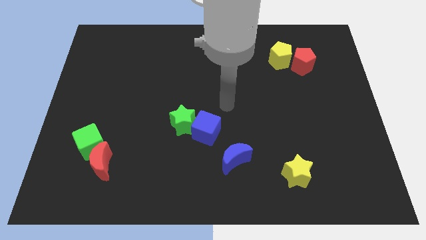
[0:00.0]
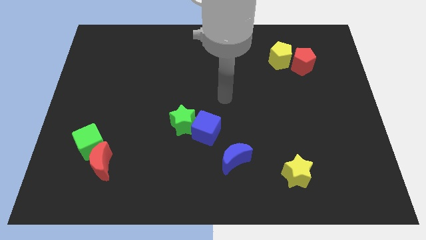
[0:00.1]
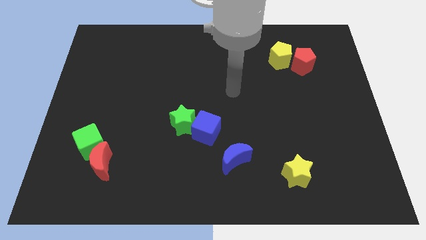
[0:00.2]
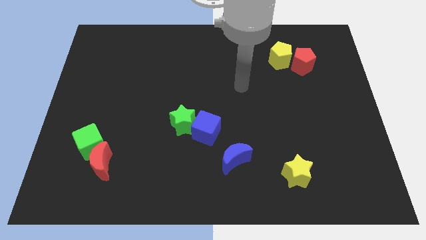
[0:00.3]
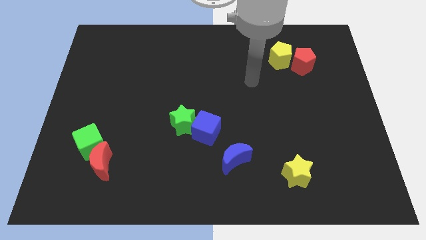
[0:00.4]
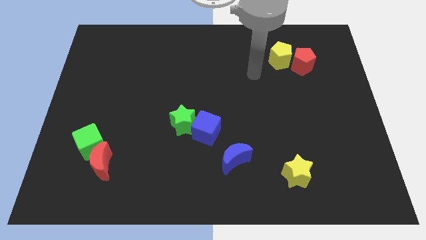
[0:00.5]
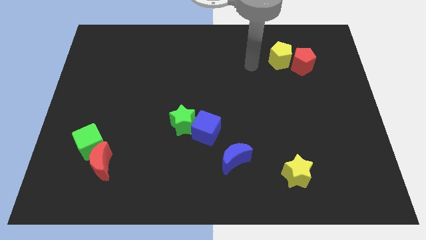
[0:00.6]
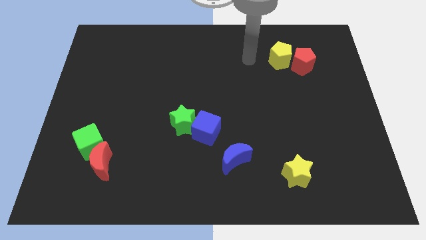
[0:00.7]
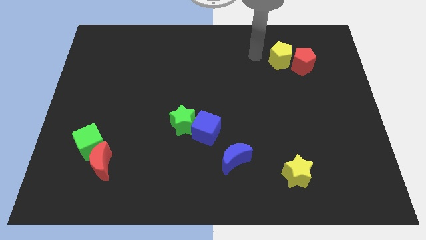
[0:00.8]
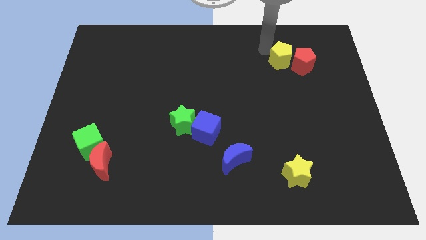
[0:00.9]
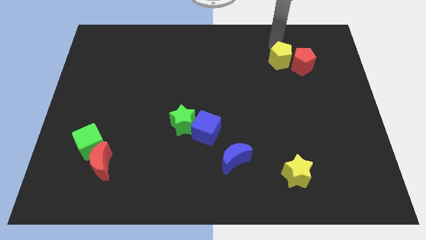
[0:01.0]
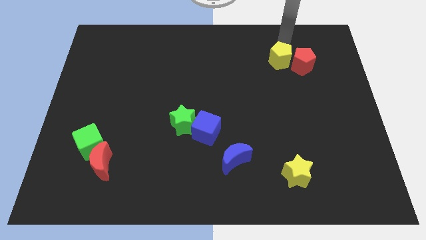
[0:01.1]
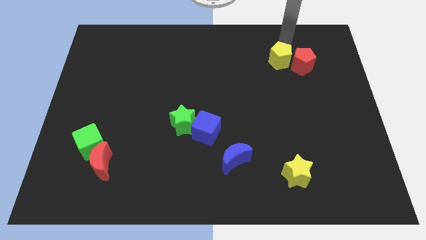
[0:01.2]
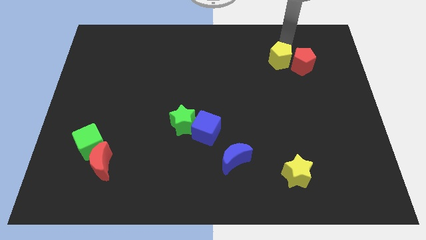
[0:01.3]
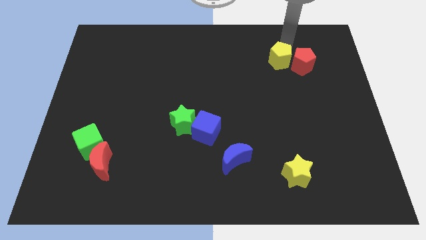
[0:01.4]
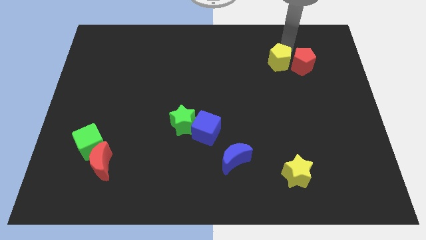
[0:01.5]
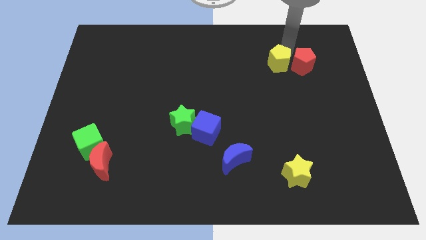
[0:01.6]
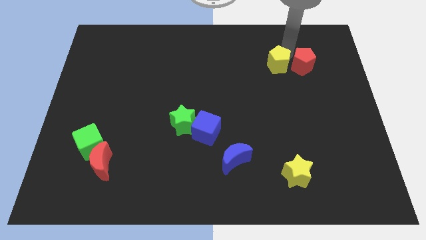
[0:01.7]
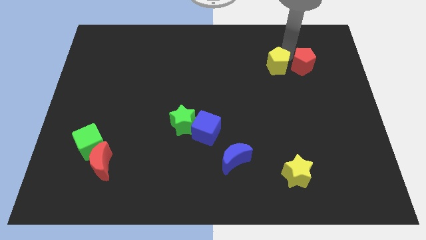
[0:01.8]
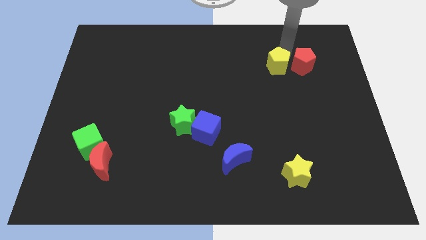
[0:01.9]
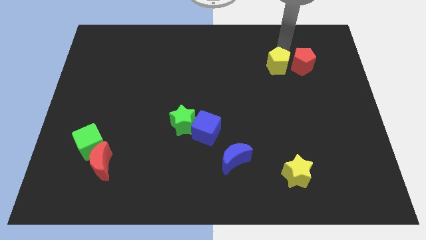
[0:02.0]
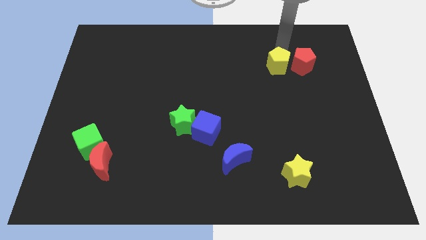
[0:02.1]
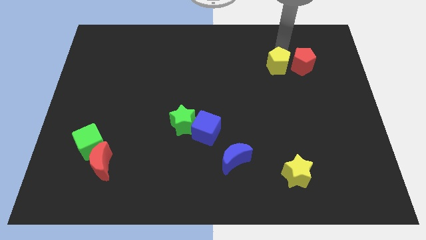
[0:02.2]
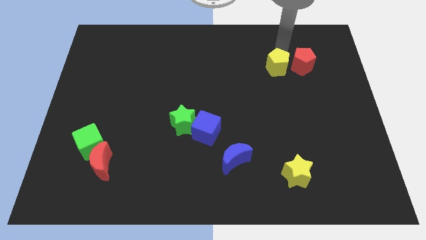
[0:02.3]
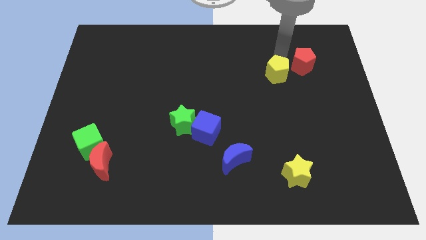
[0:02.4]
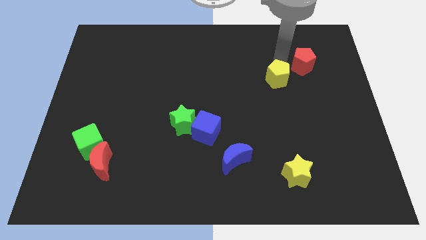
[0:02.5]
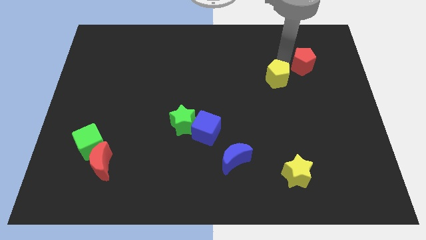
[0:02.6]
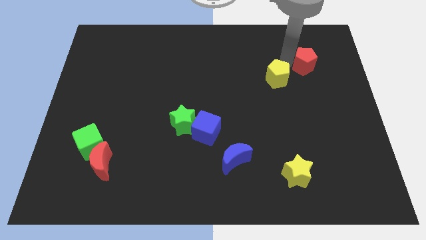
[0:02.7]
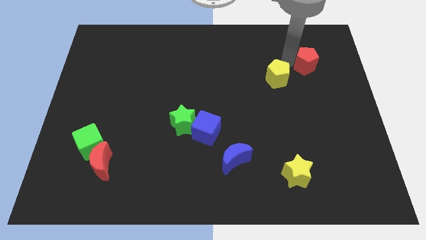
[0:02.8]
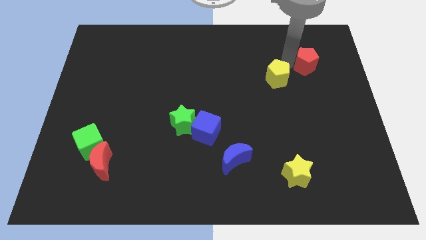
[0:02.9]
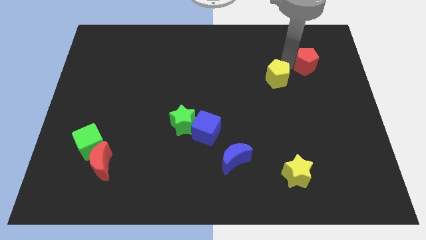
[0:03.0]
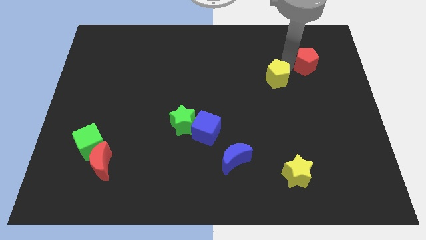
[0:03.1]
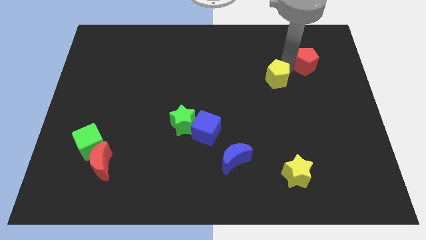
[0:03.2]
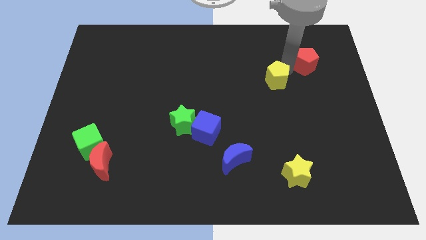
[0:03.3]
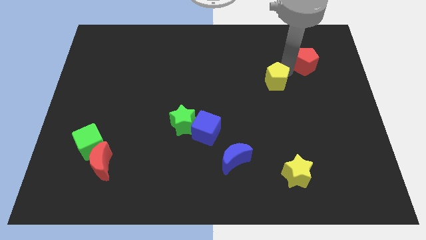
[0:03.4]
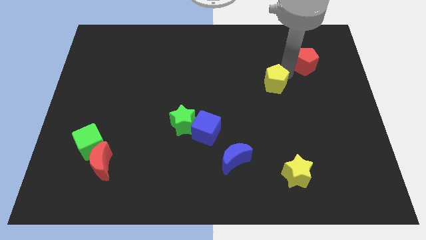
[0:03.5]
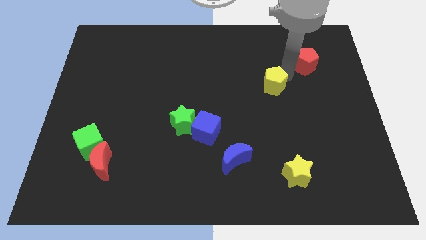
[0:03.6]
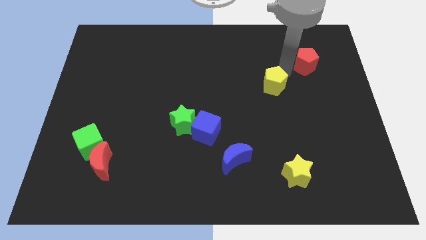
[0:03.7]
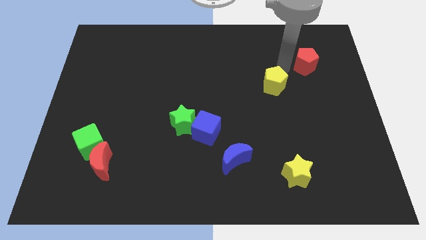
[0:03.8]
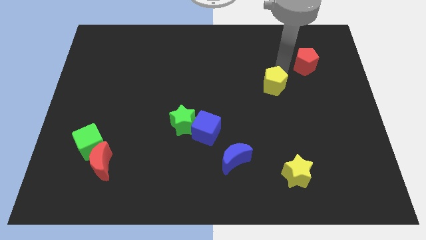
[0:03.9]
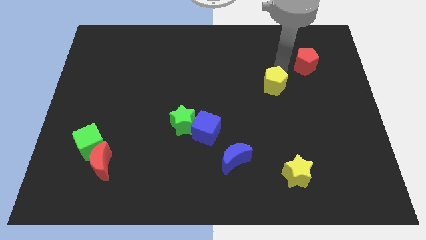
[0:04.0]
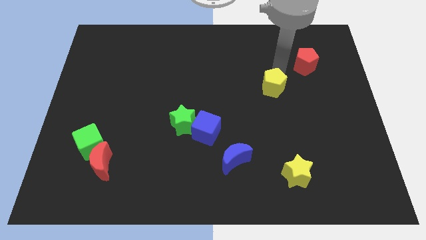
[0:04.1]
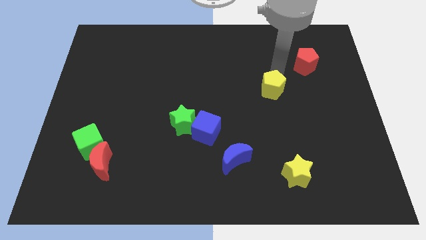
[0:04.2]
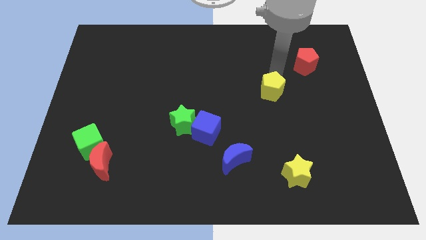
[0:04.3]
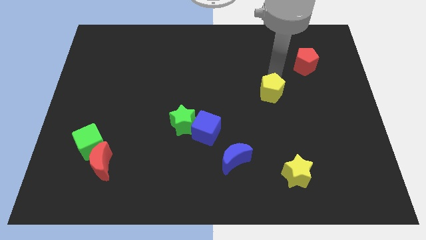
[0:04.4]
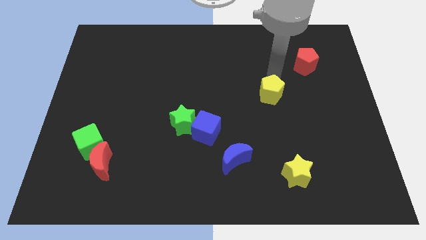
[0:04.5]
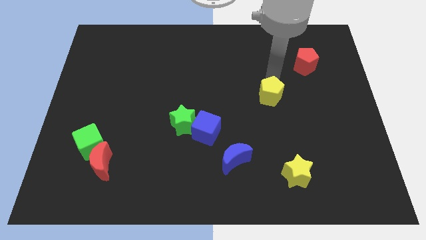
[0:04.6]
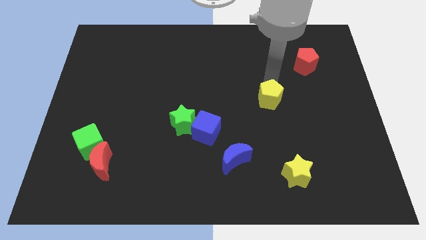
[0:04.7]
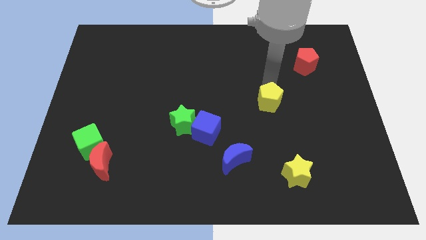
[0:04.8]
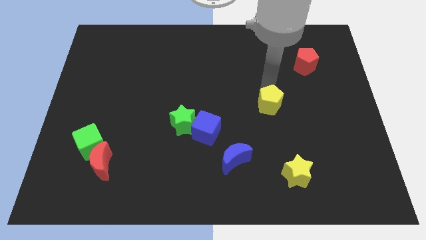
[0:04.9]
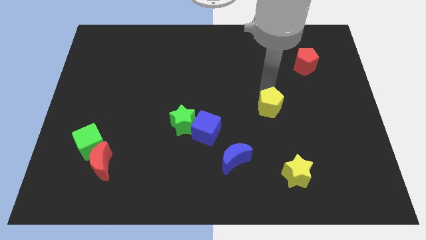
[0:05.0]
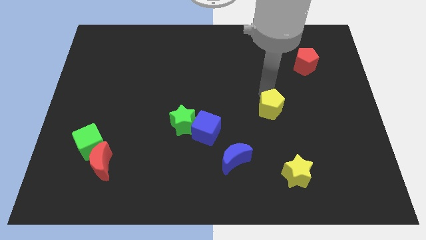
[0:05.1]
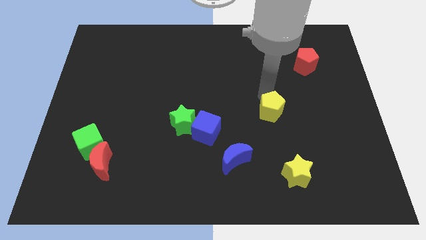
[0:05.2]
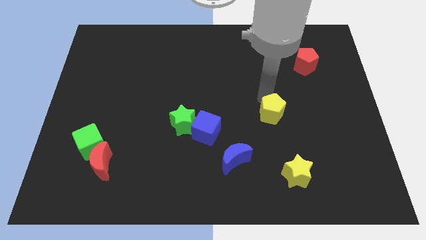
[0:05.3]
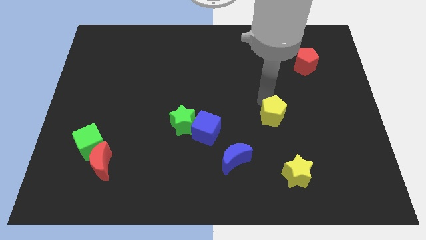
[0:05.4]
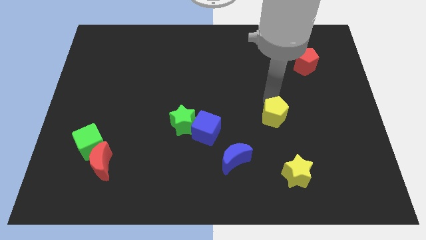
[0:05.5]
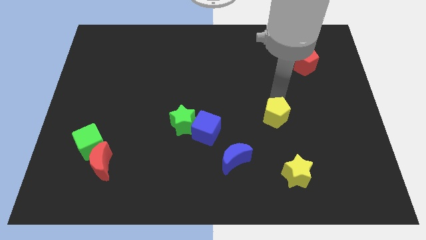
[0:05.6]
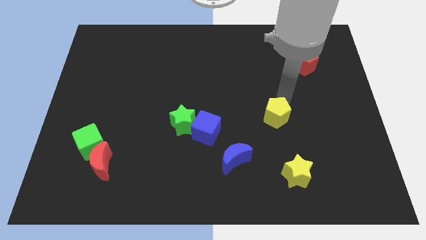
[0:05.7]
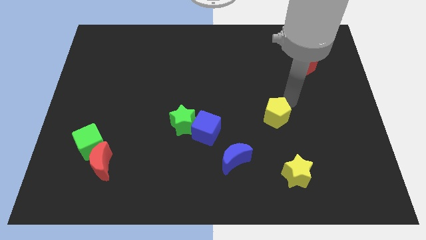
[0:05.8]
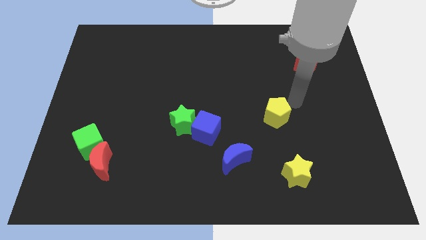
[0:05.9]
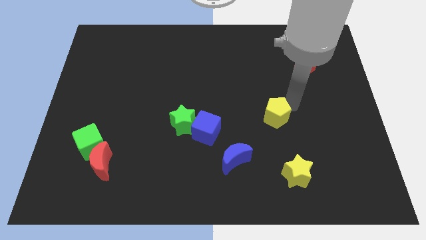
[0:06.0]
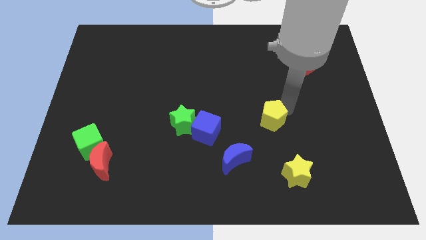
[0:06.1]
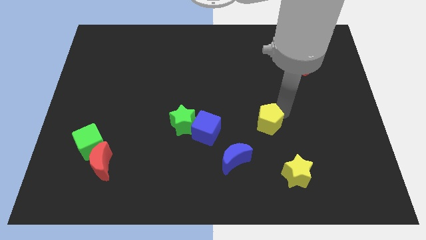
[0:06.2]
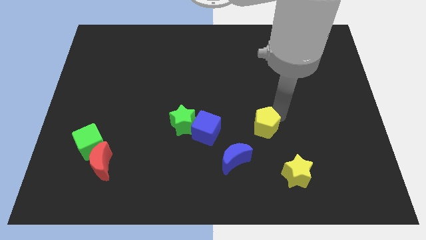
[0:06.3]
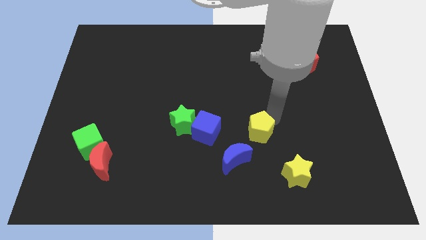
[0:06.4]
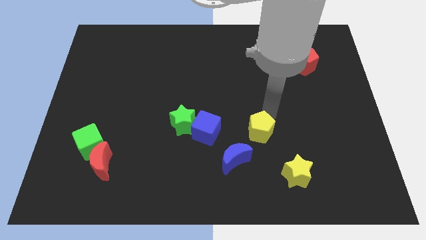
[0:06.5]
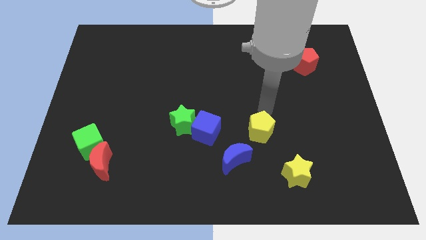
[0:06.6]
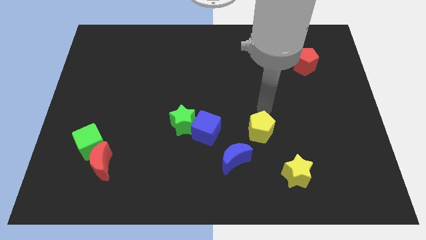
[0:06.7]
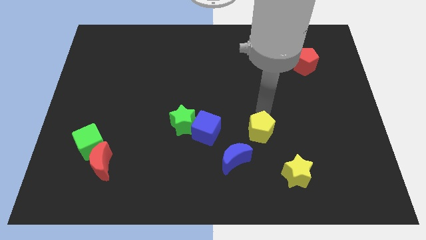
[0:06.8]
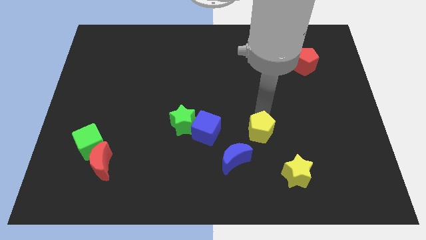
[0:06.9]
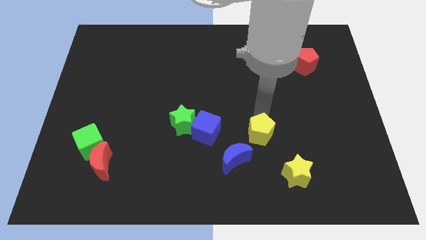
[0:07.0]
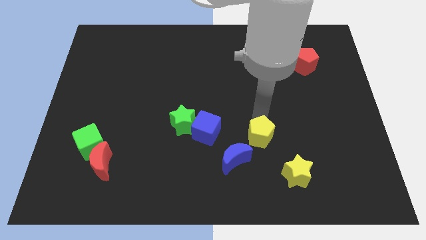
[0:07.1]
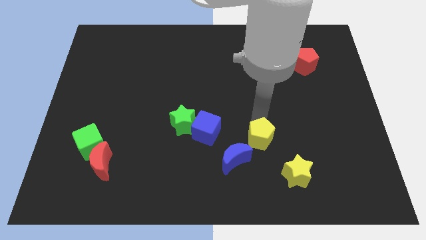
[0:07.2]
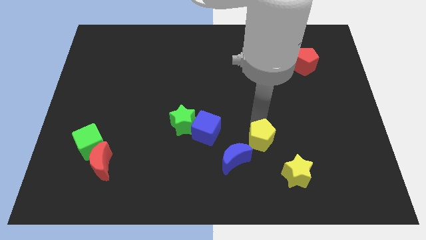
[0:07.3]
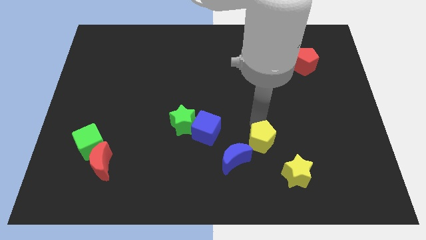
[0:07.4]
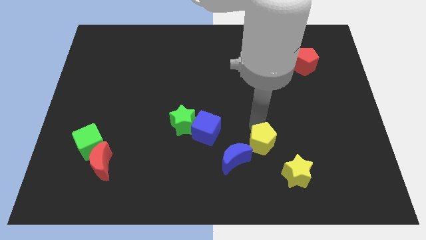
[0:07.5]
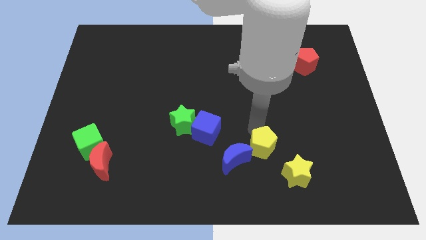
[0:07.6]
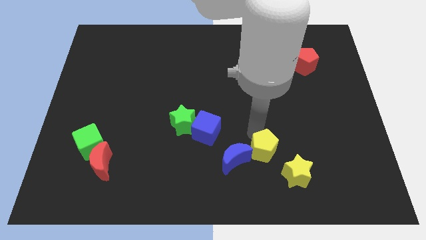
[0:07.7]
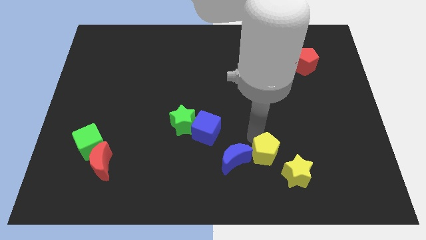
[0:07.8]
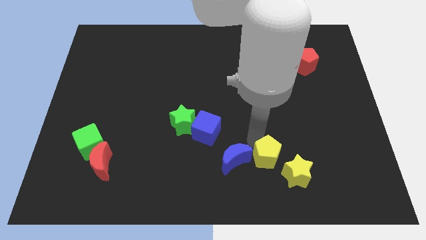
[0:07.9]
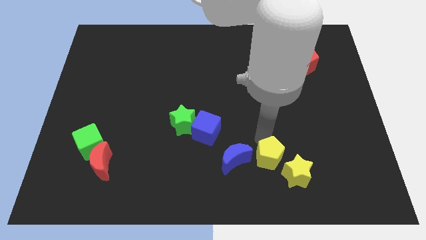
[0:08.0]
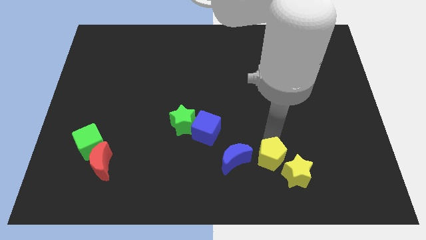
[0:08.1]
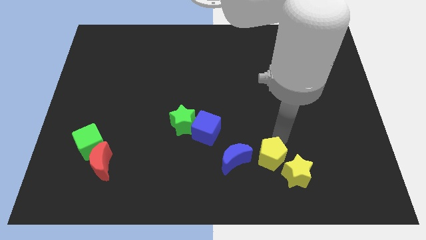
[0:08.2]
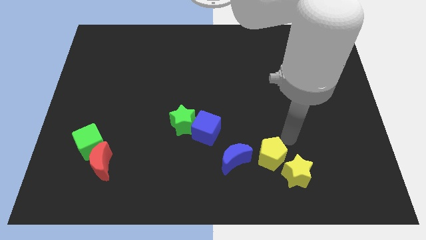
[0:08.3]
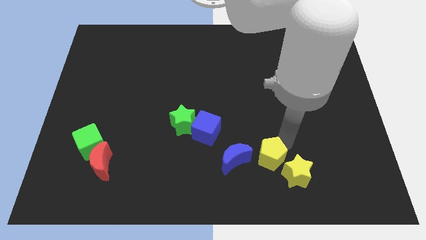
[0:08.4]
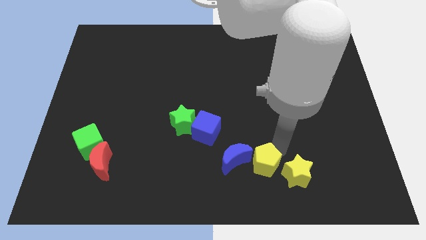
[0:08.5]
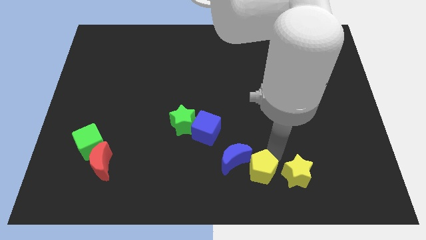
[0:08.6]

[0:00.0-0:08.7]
slide the yellow pentagon to the bottom side
